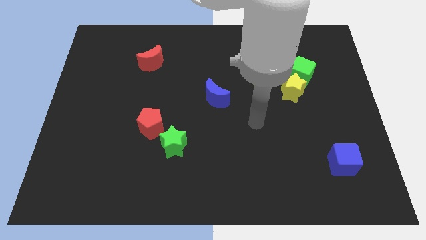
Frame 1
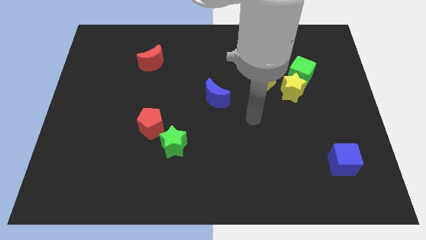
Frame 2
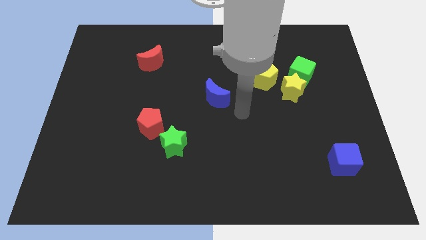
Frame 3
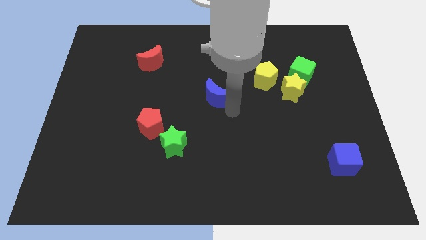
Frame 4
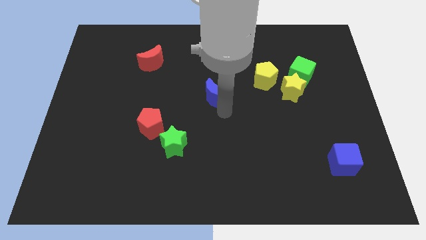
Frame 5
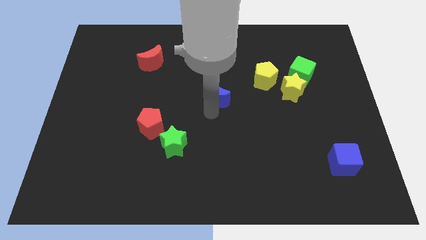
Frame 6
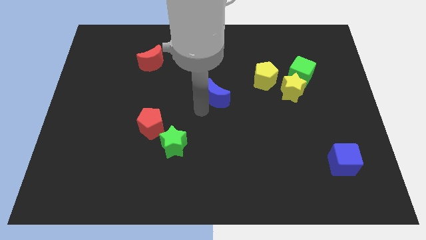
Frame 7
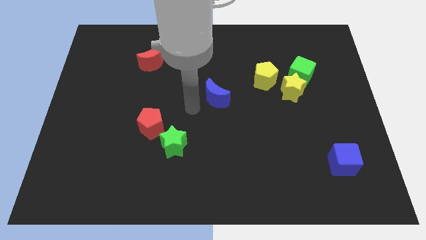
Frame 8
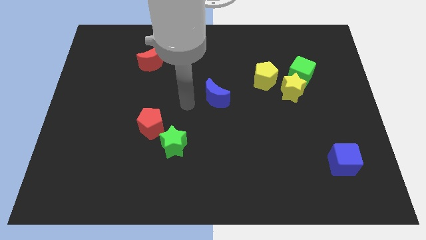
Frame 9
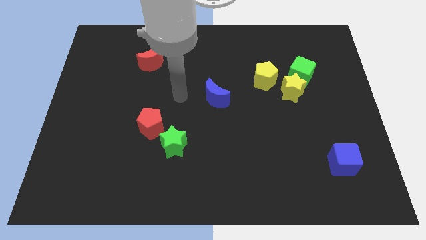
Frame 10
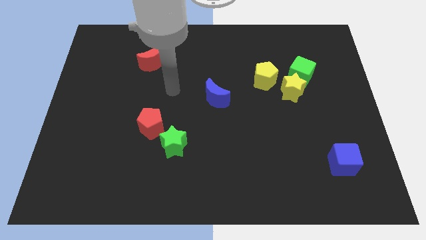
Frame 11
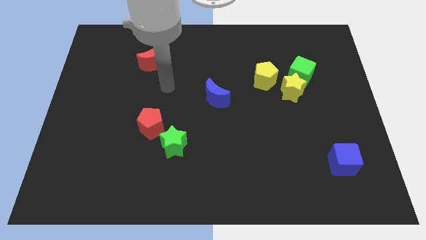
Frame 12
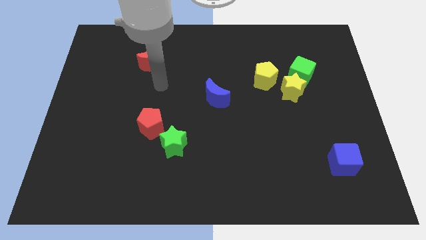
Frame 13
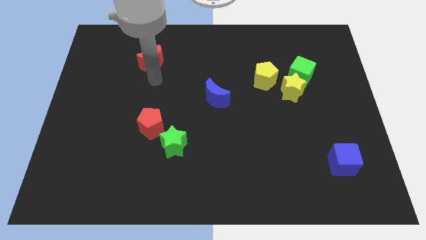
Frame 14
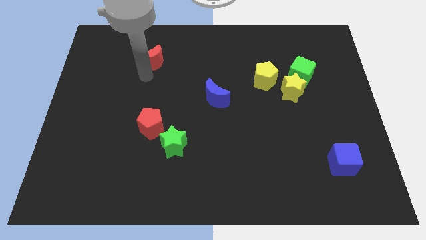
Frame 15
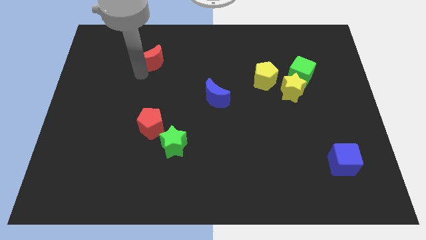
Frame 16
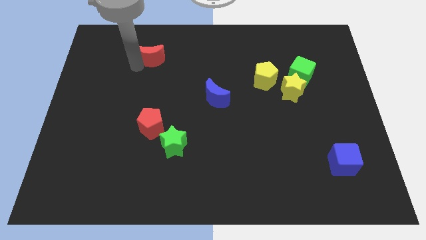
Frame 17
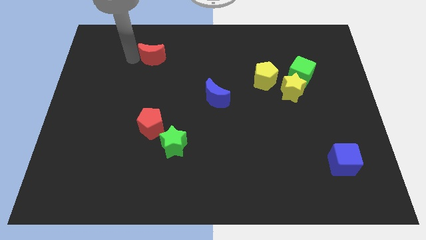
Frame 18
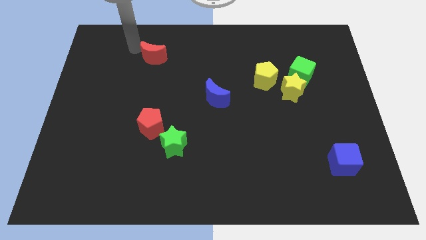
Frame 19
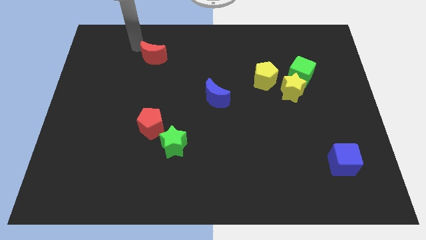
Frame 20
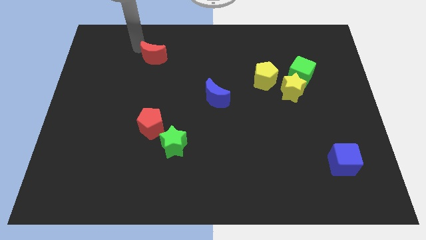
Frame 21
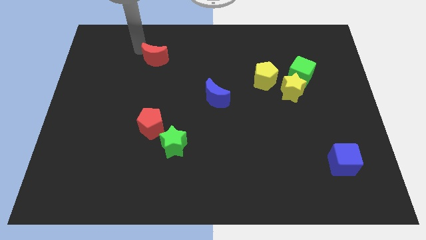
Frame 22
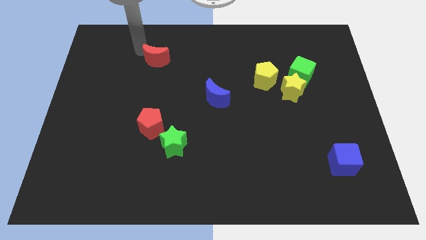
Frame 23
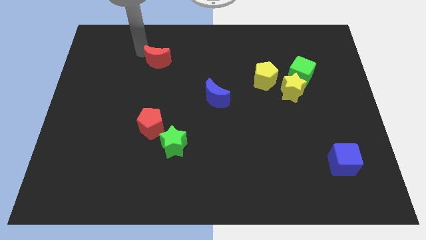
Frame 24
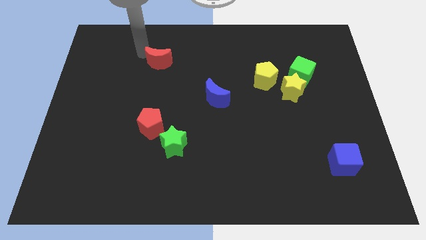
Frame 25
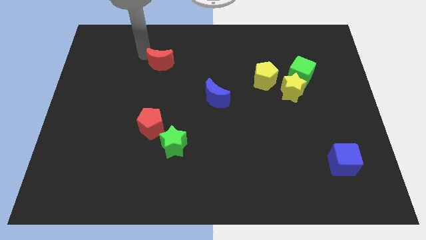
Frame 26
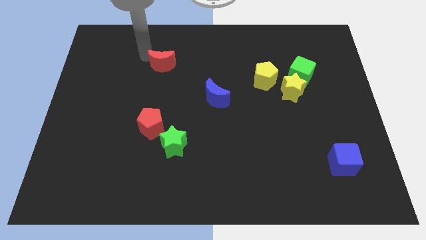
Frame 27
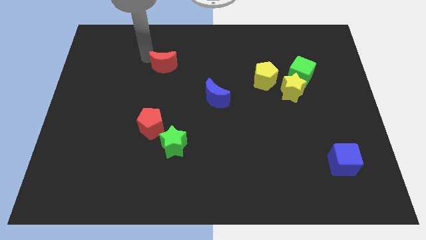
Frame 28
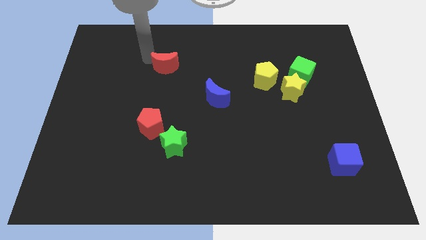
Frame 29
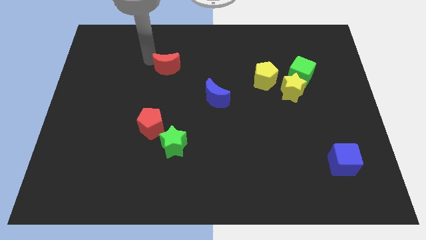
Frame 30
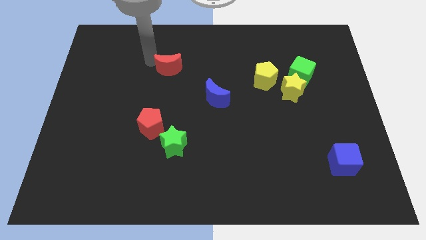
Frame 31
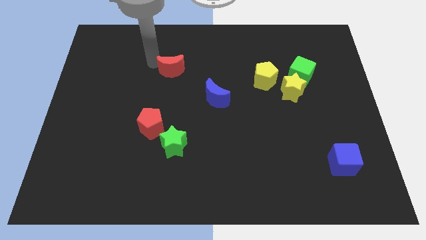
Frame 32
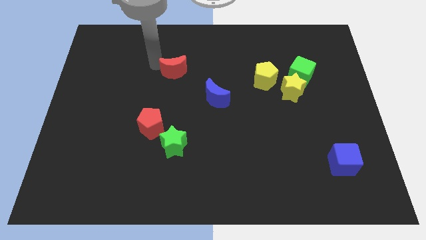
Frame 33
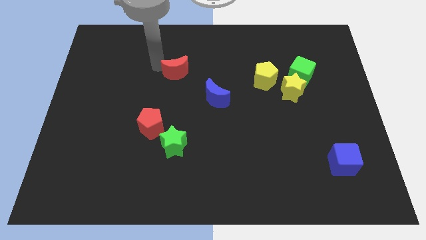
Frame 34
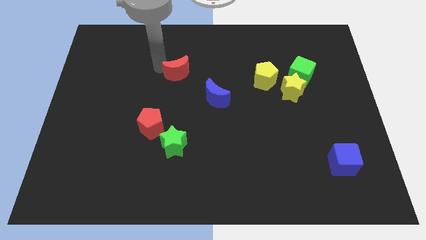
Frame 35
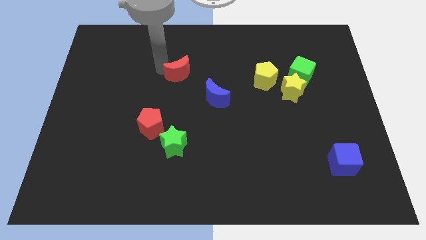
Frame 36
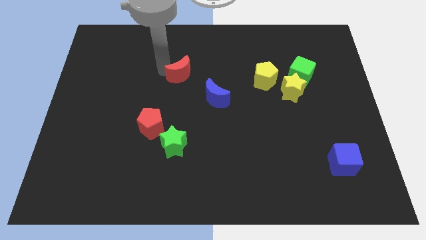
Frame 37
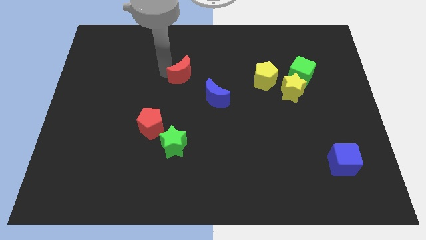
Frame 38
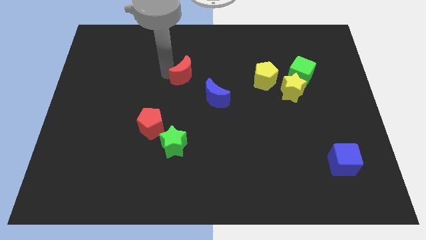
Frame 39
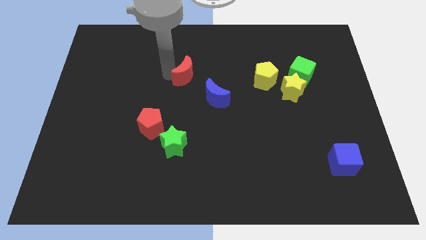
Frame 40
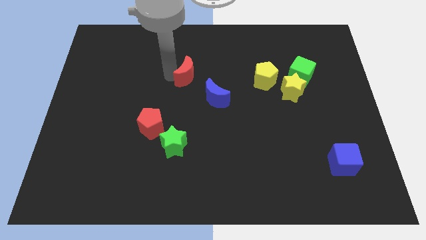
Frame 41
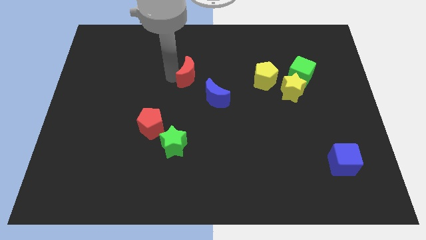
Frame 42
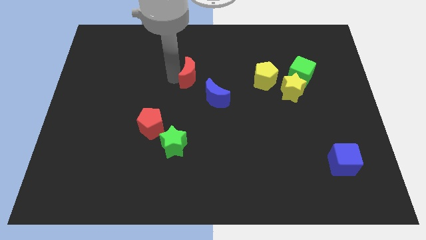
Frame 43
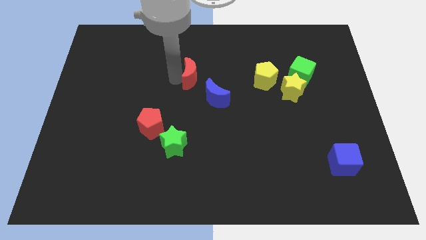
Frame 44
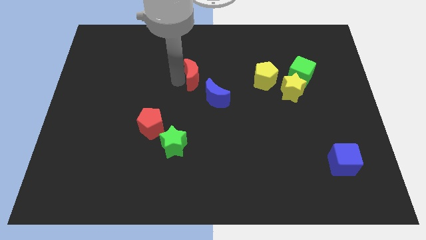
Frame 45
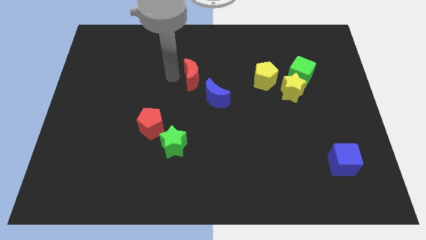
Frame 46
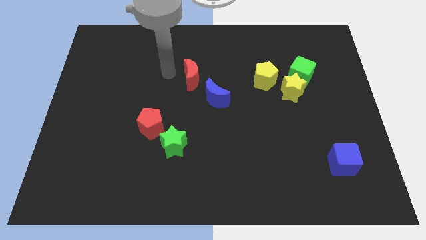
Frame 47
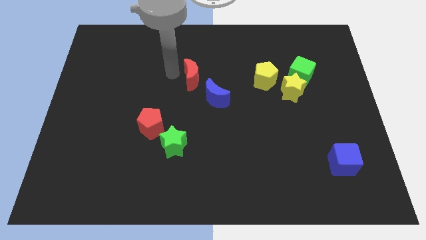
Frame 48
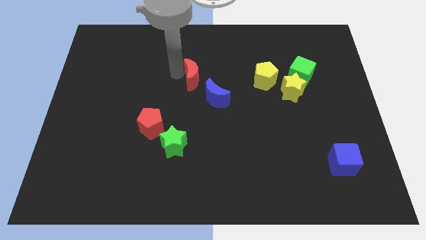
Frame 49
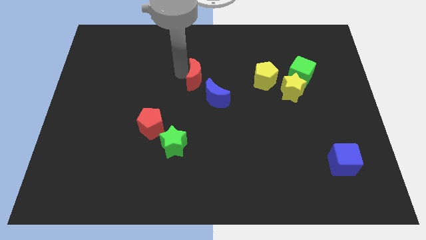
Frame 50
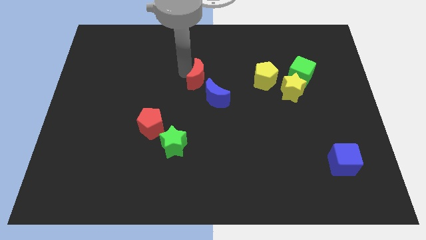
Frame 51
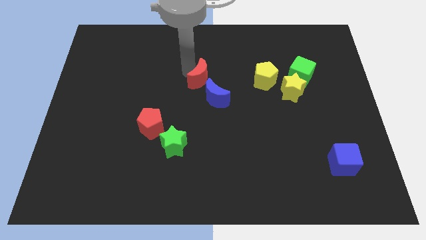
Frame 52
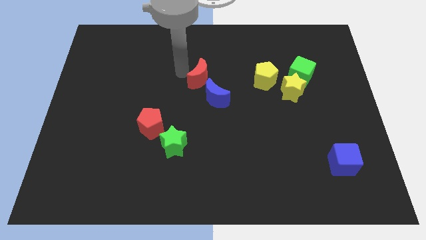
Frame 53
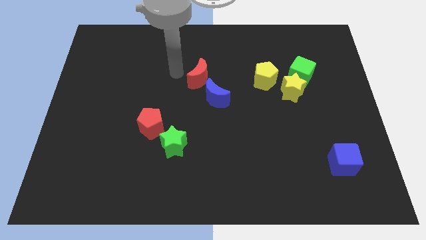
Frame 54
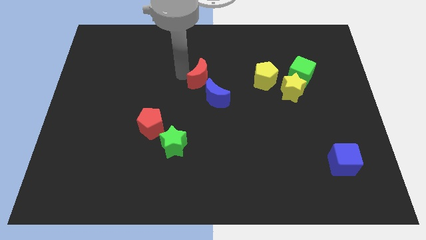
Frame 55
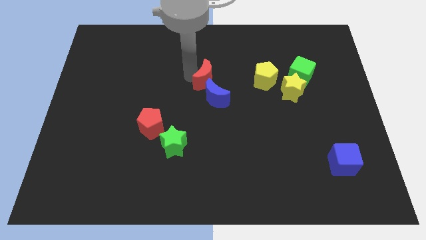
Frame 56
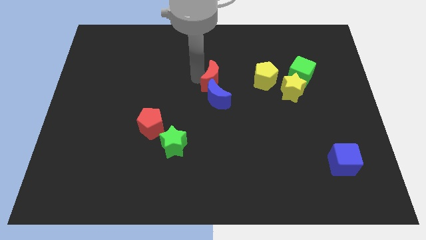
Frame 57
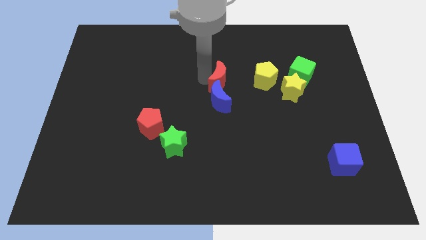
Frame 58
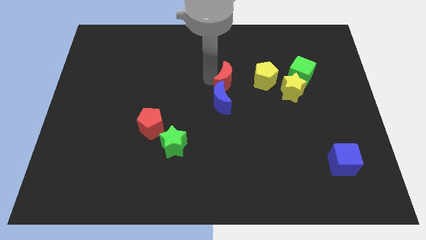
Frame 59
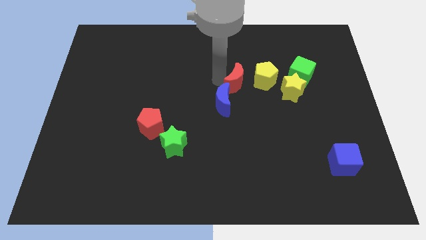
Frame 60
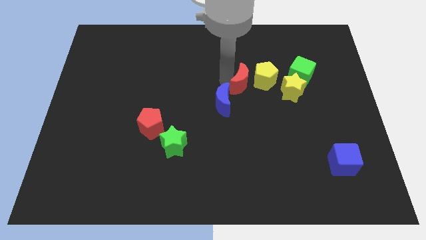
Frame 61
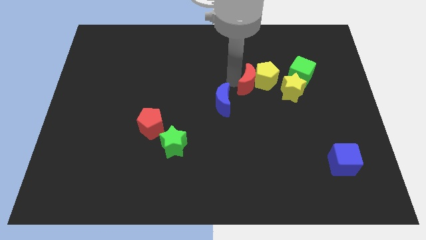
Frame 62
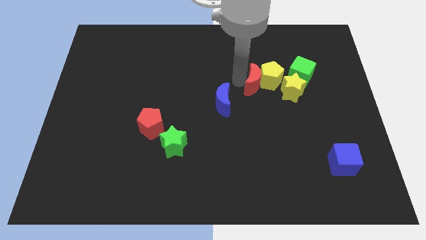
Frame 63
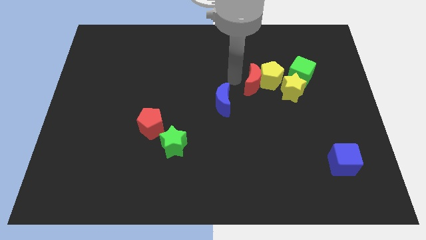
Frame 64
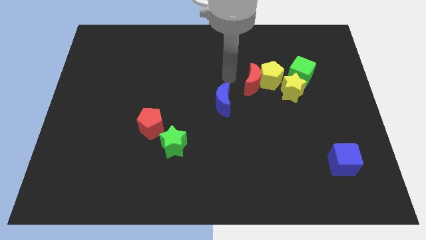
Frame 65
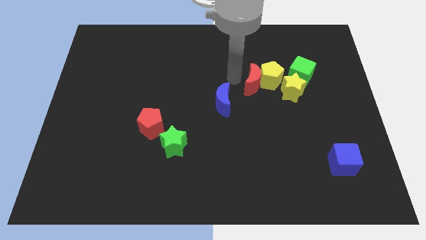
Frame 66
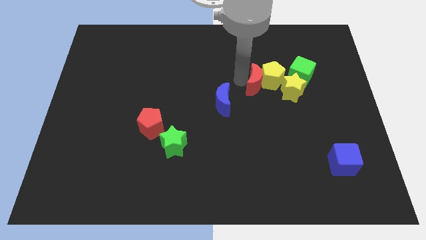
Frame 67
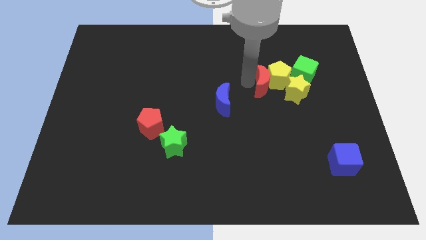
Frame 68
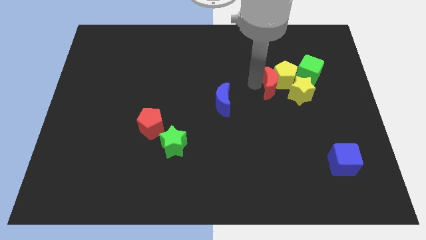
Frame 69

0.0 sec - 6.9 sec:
push the red moon to the bottom left side of the green cube
